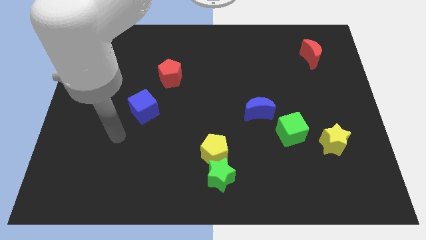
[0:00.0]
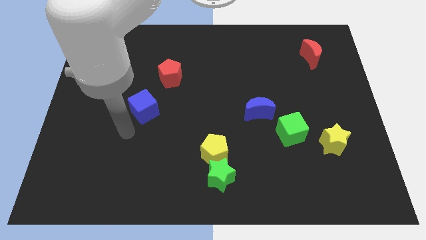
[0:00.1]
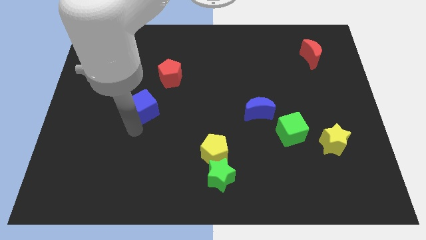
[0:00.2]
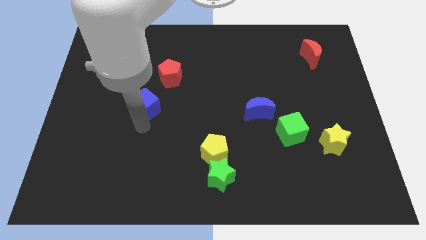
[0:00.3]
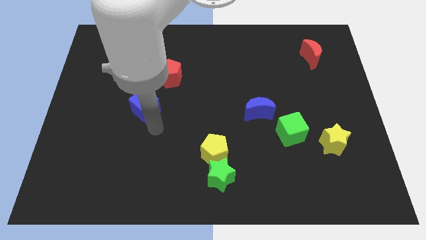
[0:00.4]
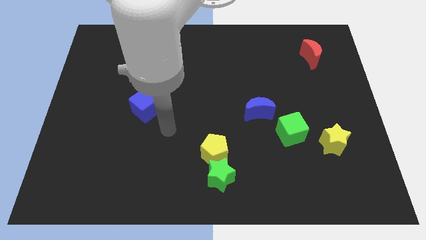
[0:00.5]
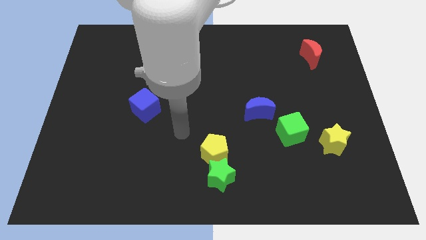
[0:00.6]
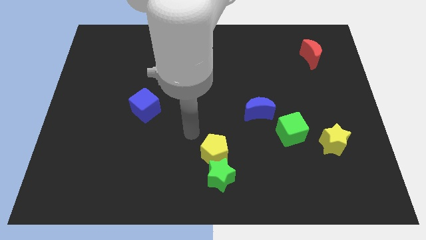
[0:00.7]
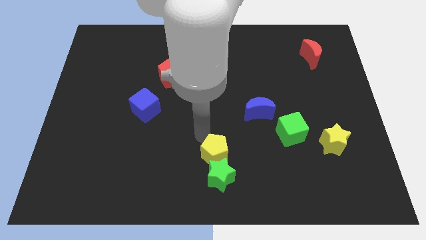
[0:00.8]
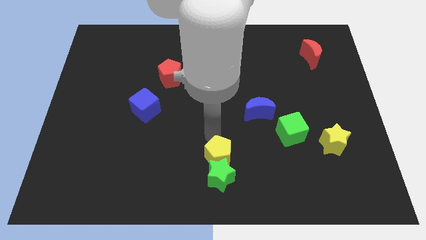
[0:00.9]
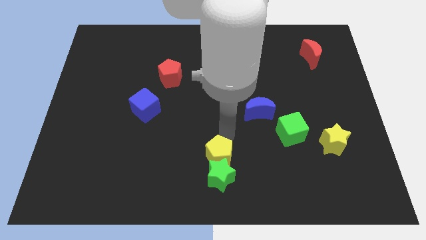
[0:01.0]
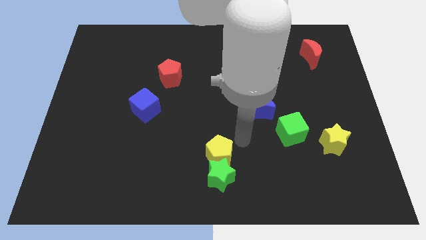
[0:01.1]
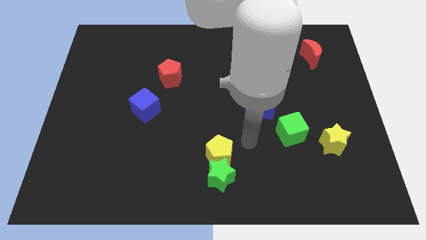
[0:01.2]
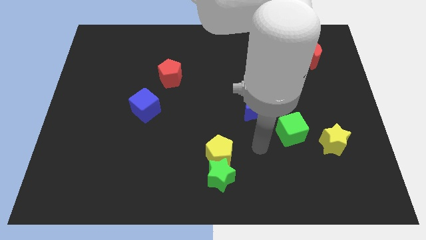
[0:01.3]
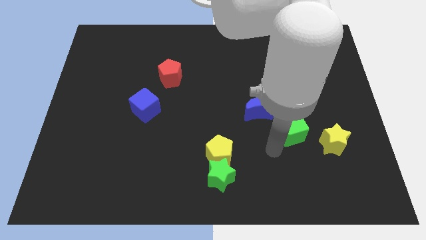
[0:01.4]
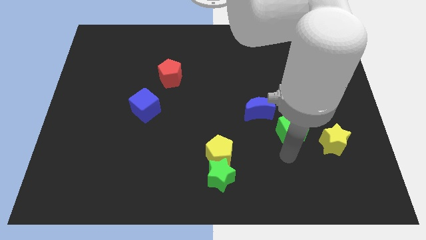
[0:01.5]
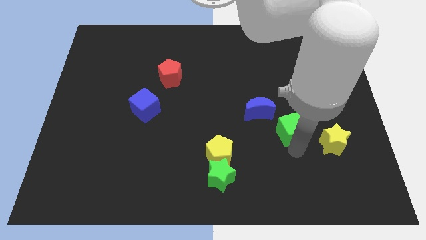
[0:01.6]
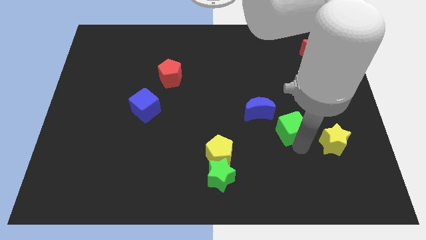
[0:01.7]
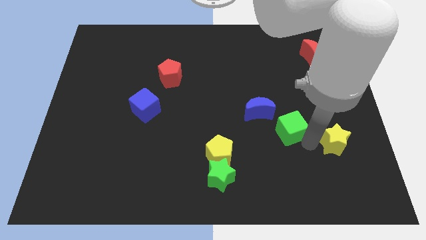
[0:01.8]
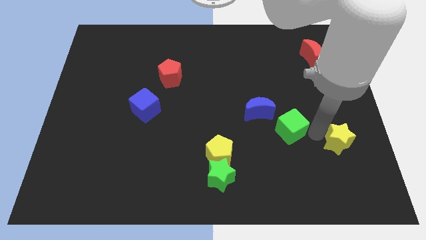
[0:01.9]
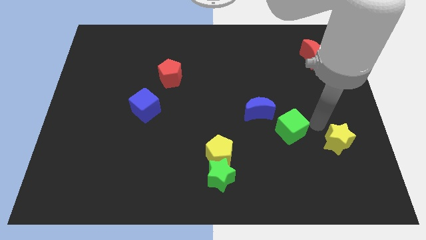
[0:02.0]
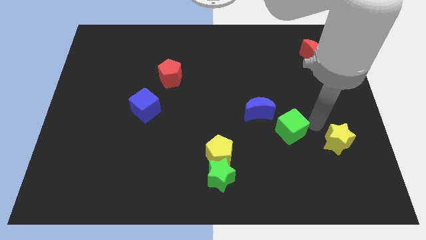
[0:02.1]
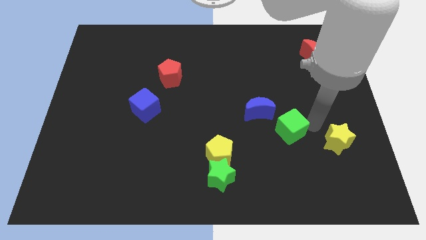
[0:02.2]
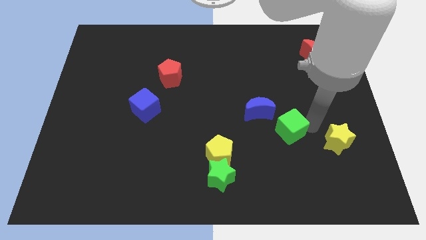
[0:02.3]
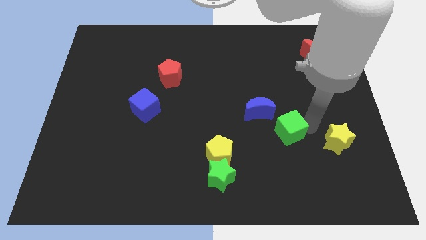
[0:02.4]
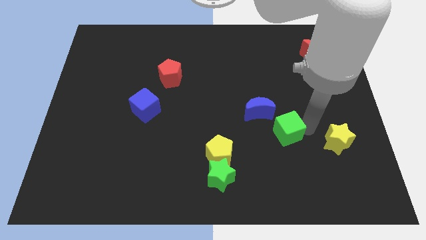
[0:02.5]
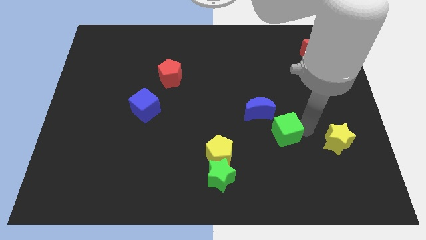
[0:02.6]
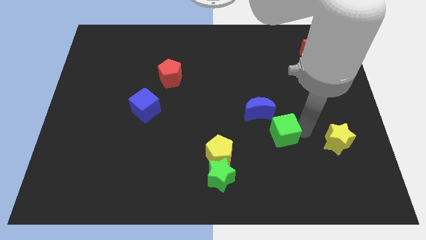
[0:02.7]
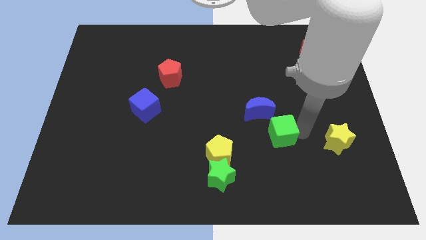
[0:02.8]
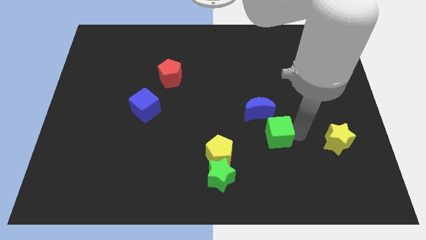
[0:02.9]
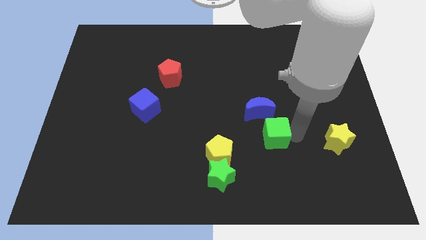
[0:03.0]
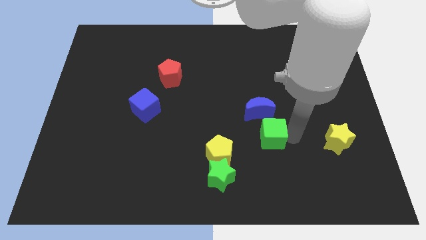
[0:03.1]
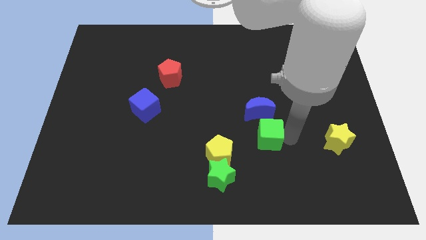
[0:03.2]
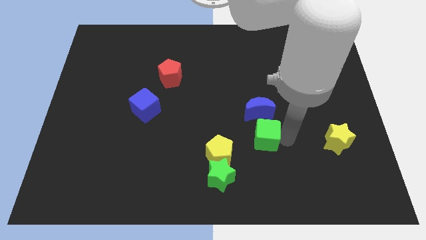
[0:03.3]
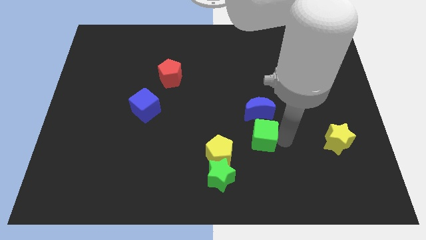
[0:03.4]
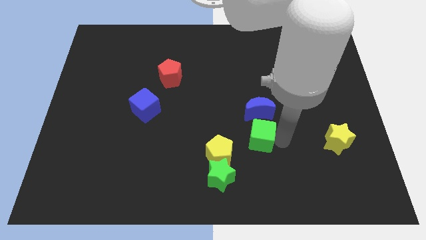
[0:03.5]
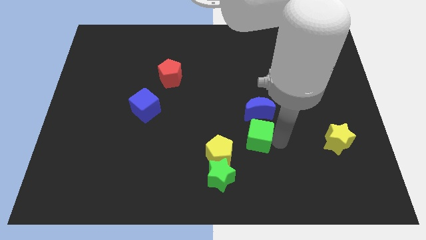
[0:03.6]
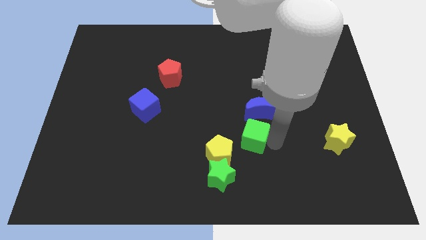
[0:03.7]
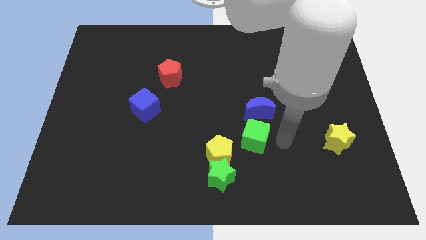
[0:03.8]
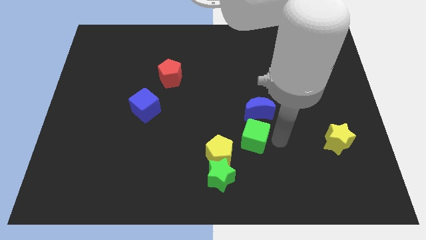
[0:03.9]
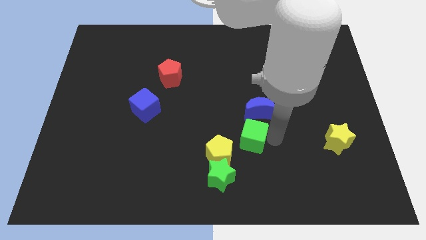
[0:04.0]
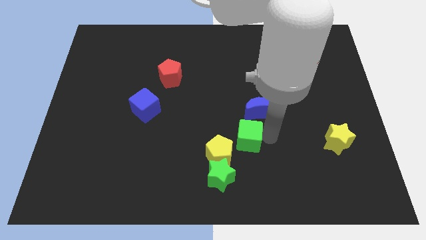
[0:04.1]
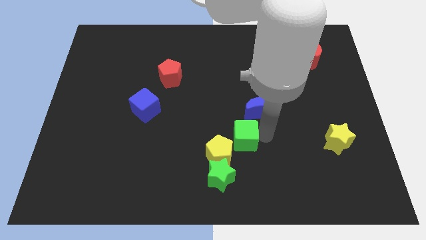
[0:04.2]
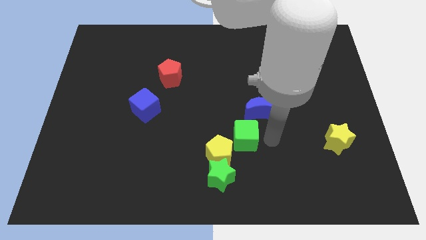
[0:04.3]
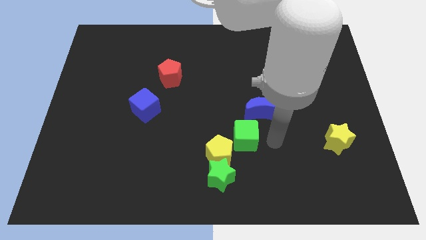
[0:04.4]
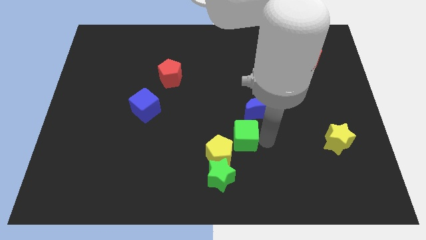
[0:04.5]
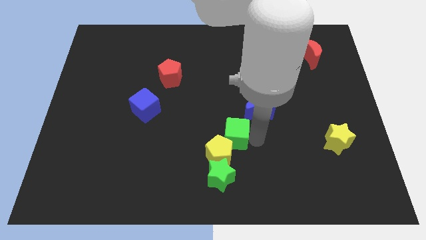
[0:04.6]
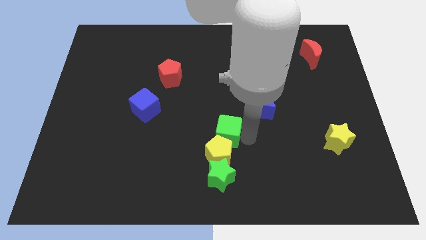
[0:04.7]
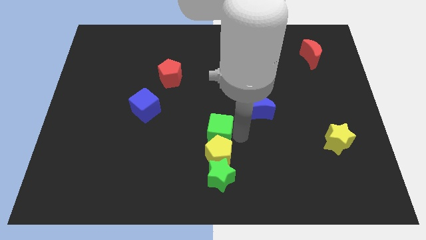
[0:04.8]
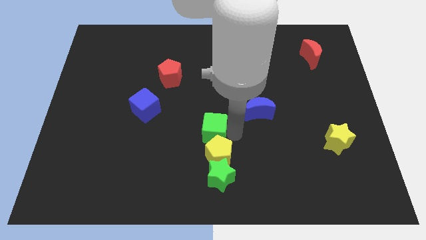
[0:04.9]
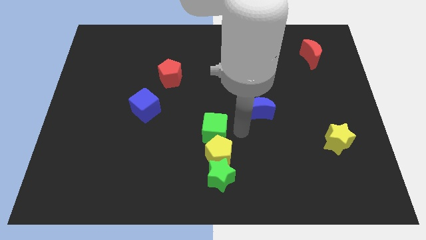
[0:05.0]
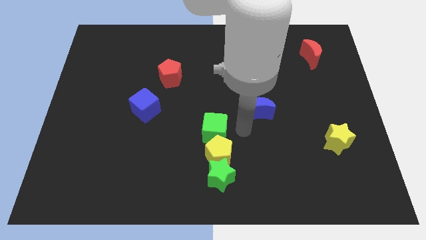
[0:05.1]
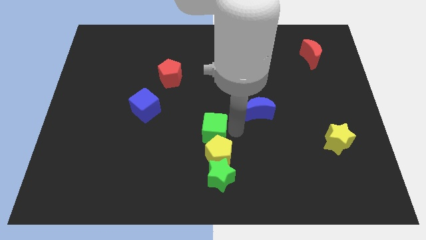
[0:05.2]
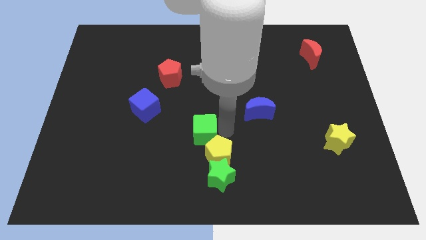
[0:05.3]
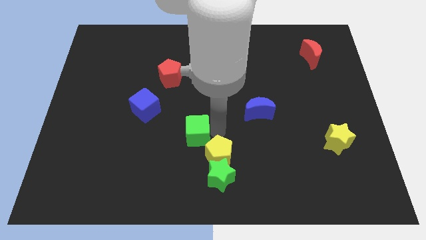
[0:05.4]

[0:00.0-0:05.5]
push the green cube left

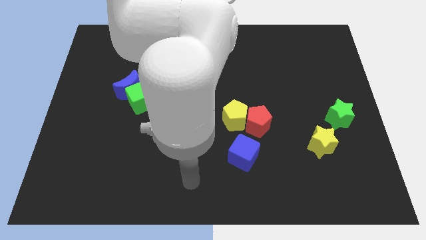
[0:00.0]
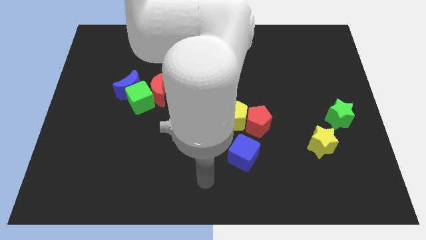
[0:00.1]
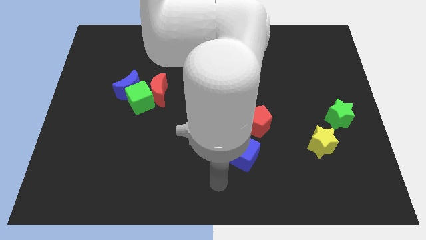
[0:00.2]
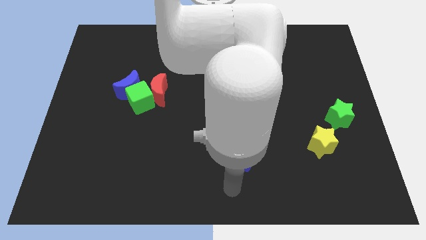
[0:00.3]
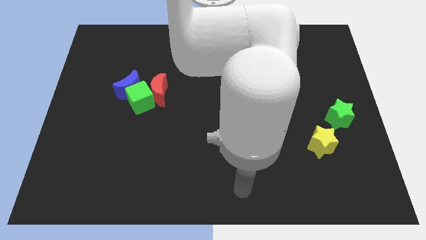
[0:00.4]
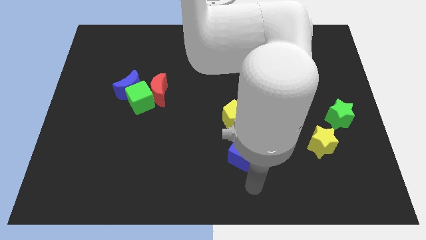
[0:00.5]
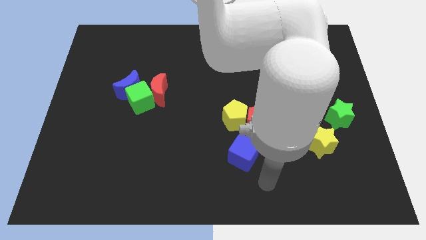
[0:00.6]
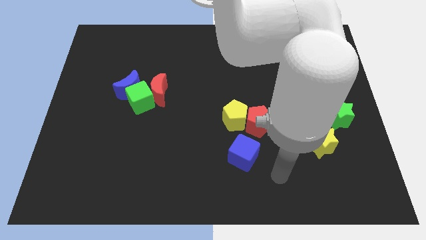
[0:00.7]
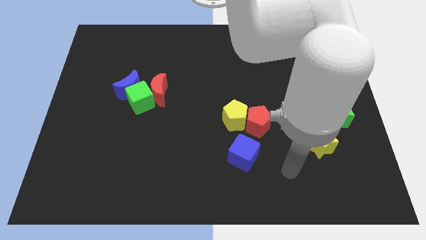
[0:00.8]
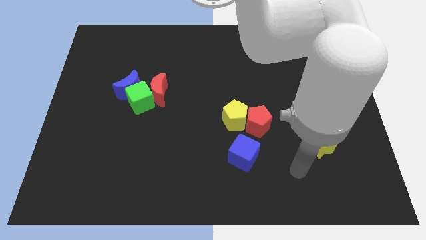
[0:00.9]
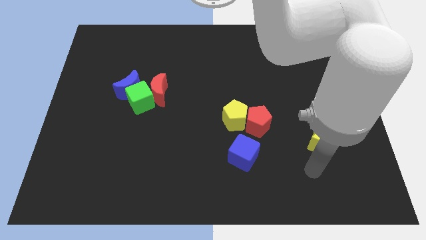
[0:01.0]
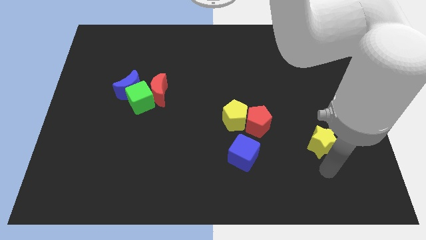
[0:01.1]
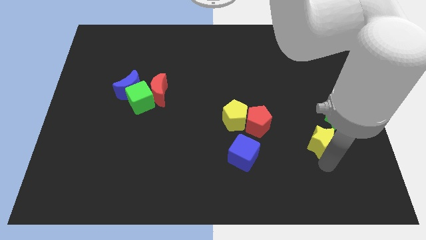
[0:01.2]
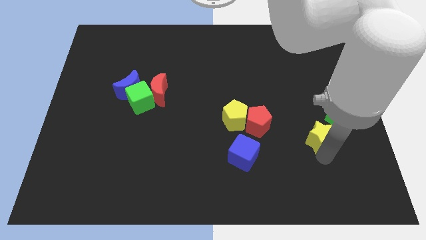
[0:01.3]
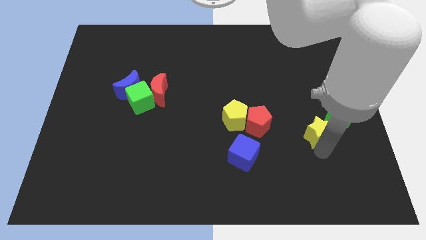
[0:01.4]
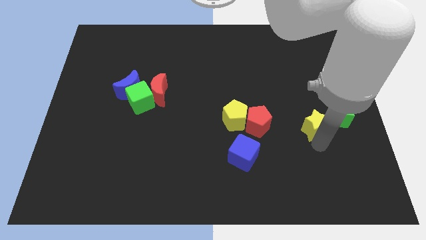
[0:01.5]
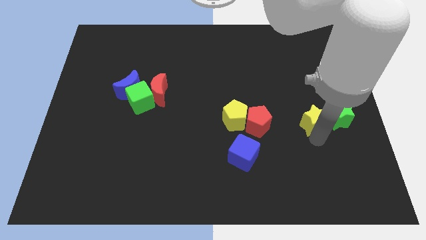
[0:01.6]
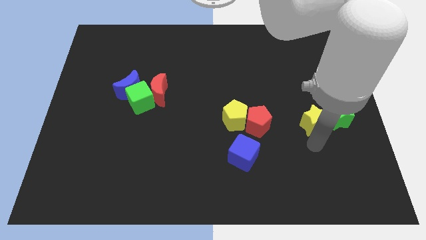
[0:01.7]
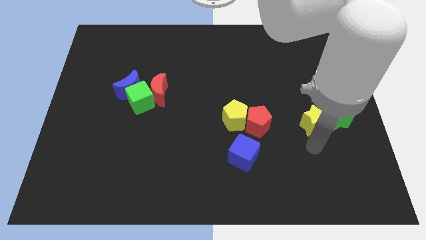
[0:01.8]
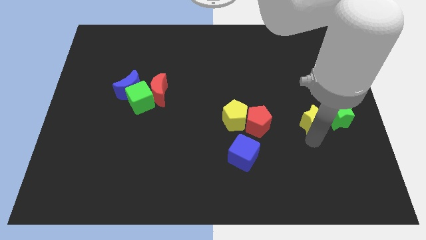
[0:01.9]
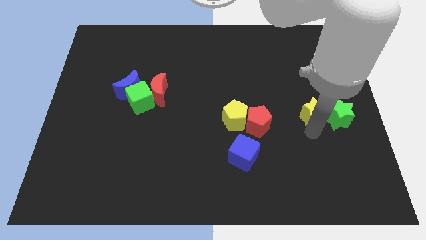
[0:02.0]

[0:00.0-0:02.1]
slide the yellow star upwards a little bit
